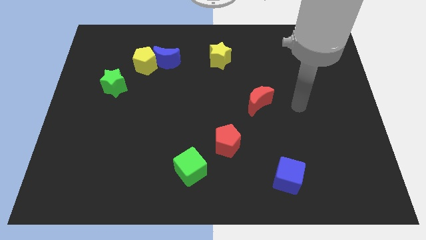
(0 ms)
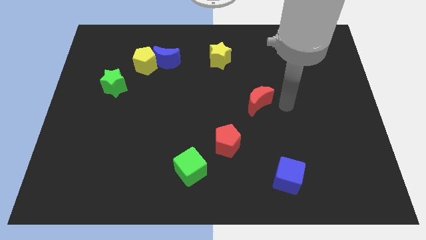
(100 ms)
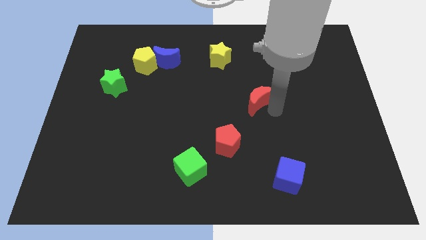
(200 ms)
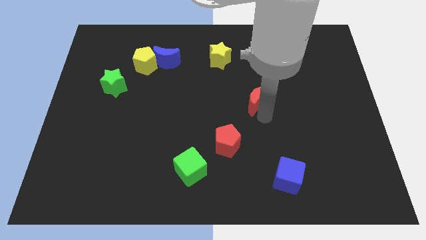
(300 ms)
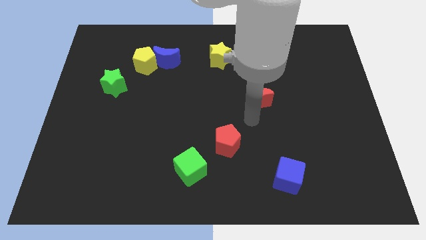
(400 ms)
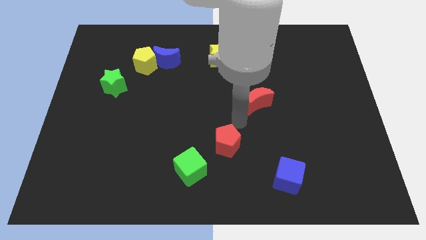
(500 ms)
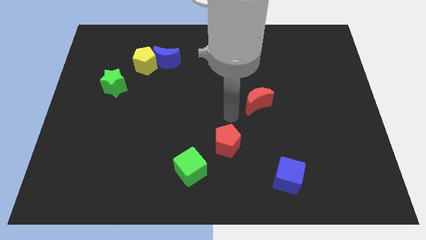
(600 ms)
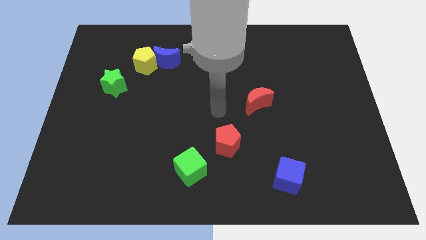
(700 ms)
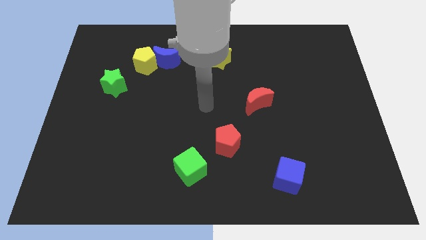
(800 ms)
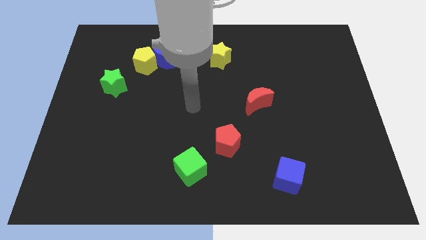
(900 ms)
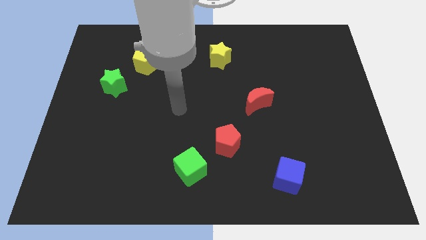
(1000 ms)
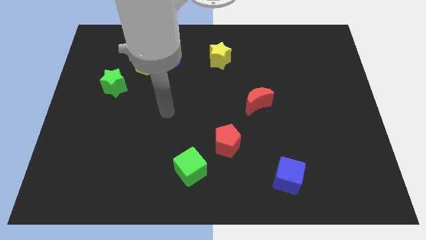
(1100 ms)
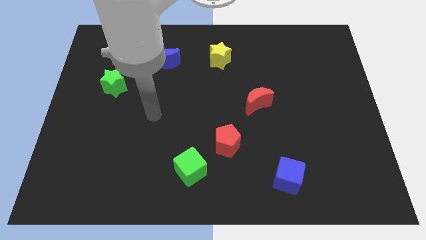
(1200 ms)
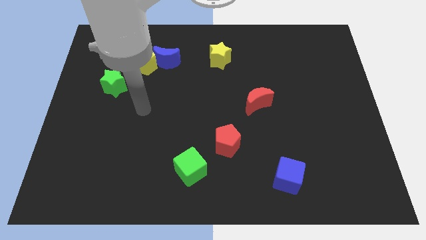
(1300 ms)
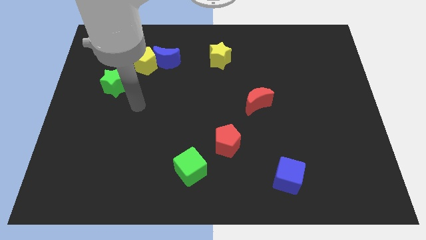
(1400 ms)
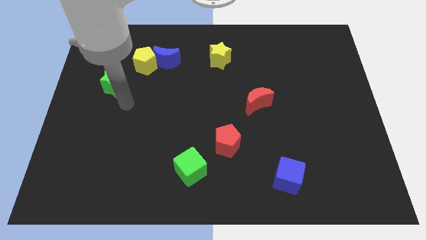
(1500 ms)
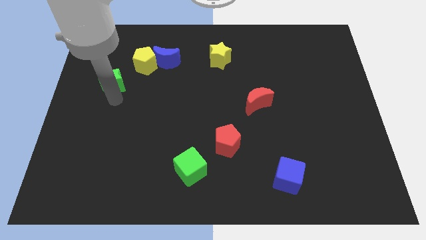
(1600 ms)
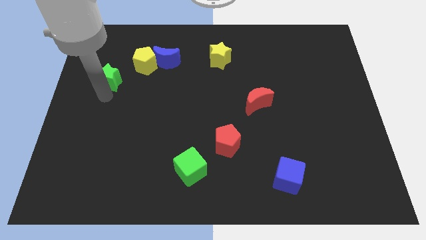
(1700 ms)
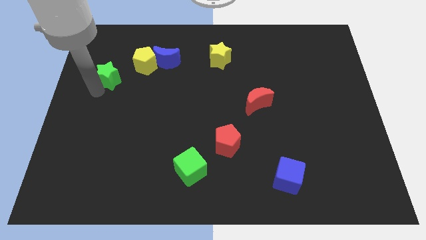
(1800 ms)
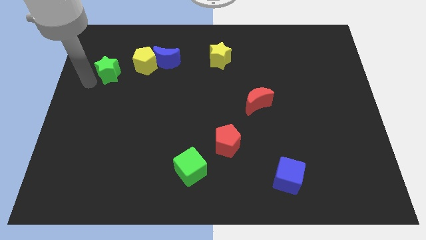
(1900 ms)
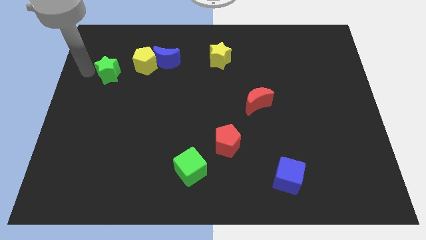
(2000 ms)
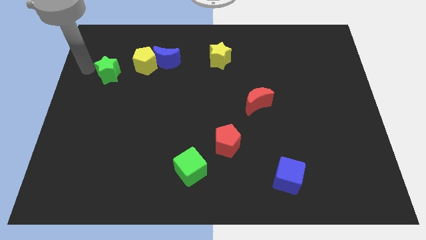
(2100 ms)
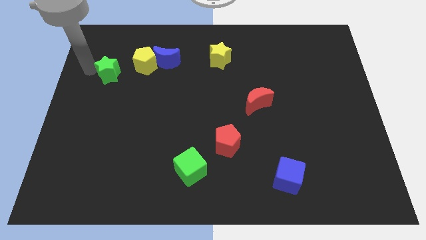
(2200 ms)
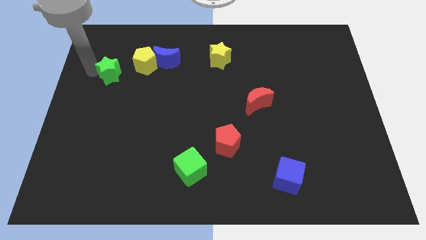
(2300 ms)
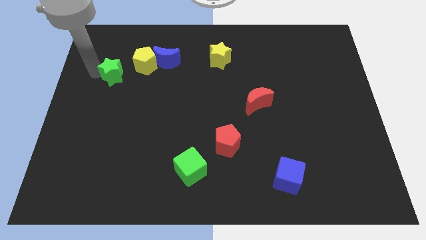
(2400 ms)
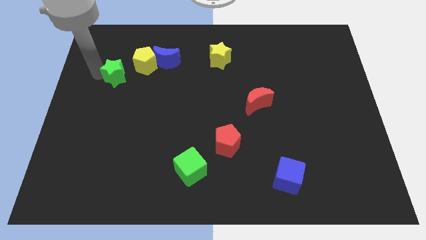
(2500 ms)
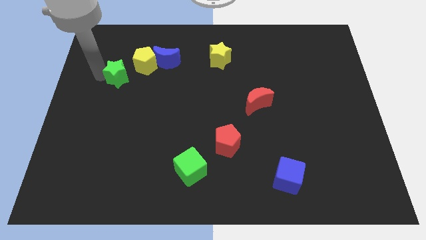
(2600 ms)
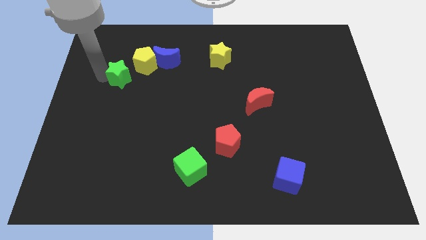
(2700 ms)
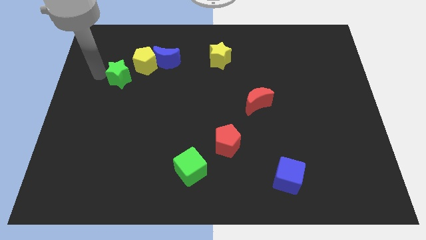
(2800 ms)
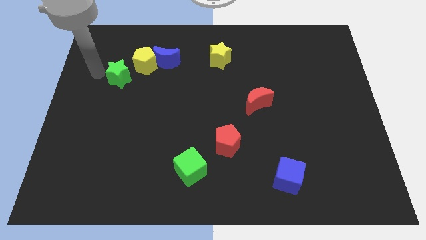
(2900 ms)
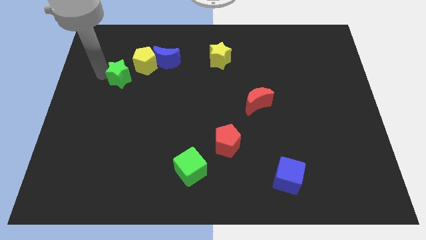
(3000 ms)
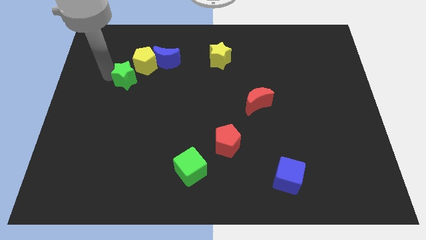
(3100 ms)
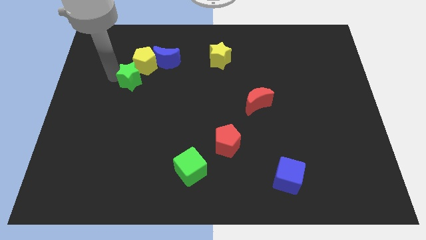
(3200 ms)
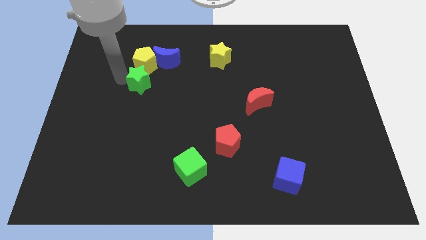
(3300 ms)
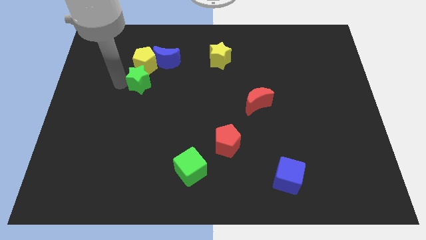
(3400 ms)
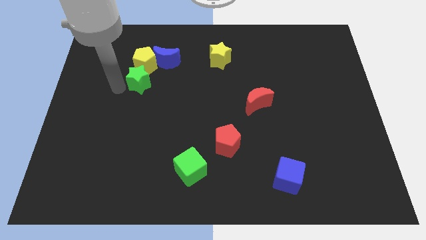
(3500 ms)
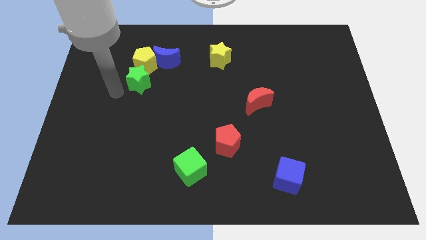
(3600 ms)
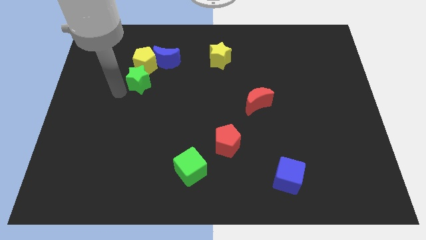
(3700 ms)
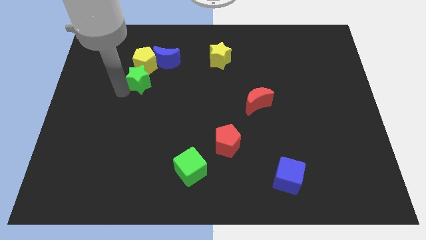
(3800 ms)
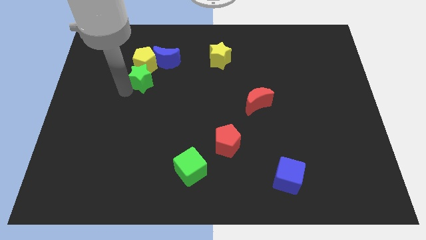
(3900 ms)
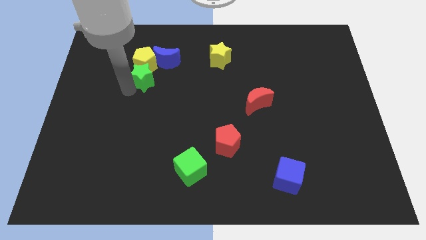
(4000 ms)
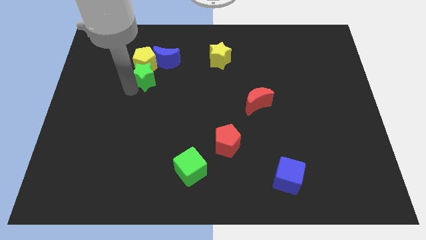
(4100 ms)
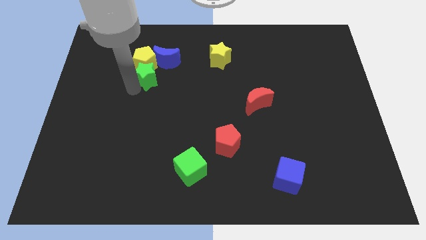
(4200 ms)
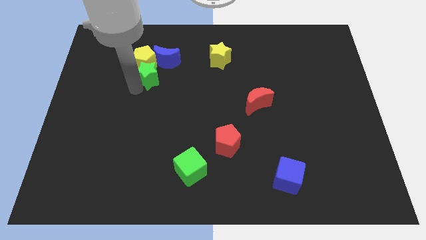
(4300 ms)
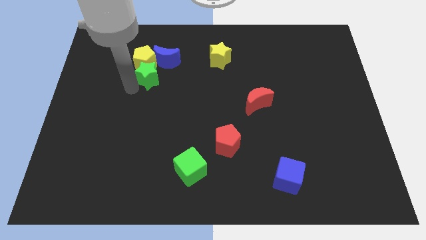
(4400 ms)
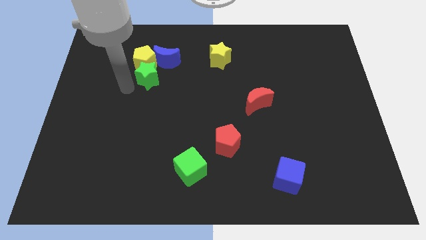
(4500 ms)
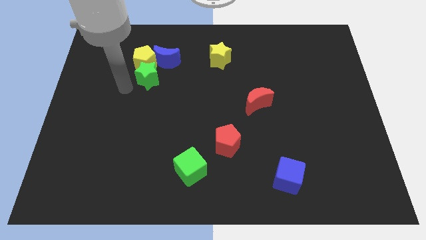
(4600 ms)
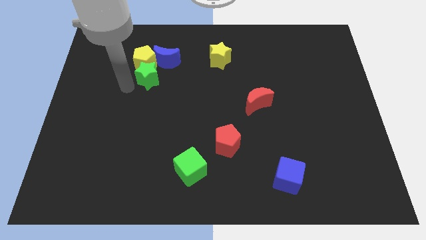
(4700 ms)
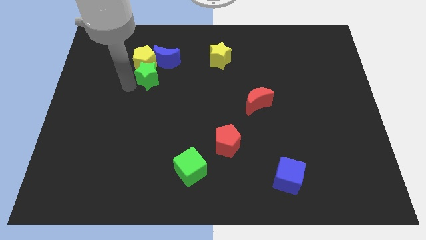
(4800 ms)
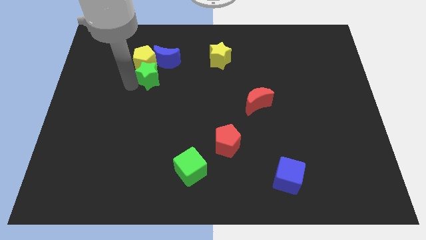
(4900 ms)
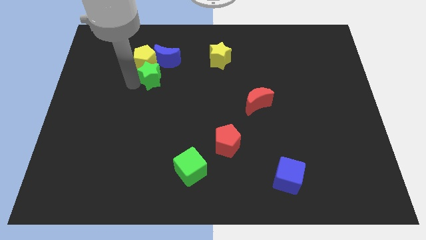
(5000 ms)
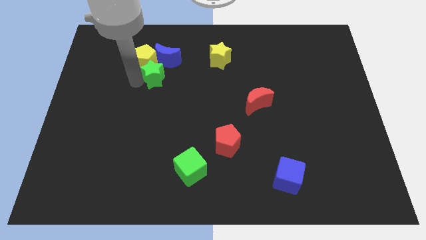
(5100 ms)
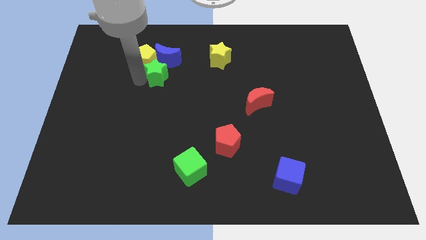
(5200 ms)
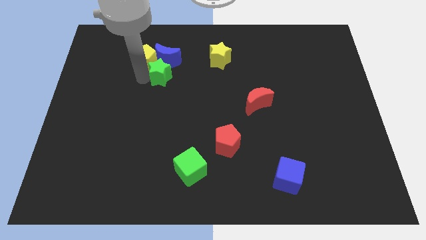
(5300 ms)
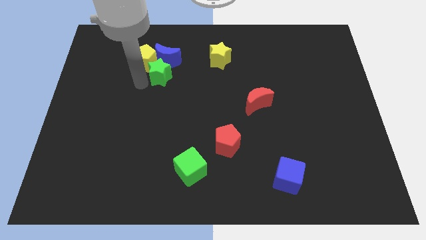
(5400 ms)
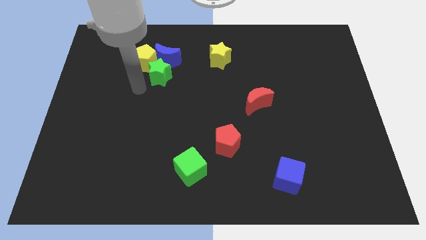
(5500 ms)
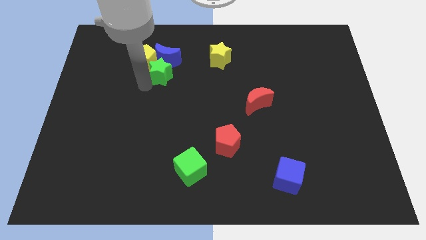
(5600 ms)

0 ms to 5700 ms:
slide the green star just right of the yellow pentagon

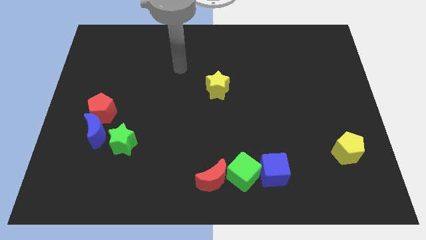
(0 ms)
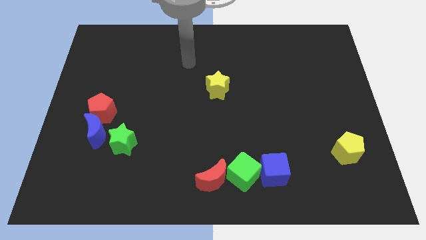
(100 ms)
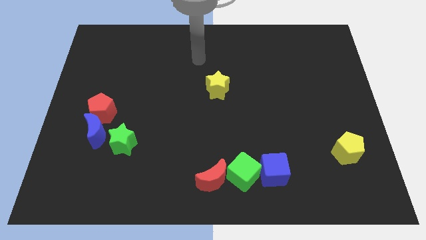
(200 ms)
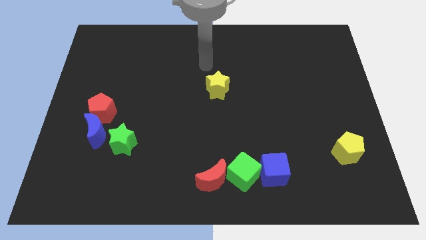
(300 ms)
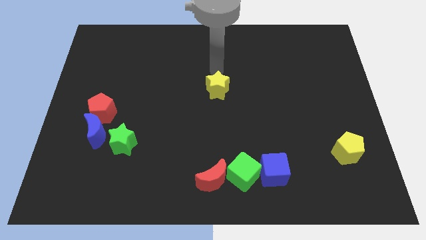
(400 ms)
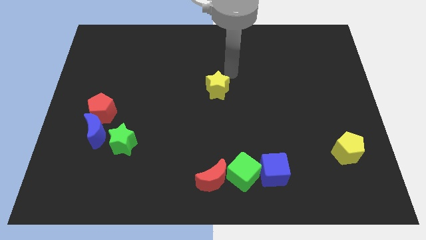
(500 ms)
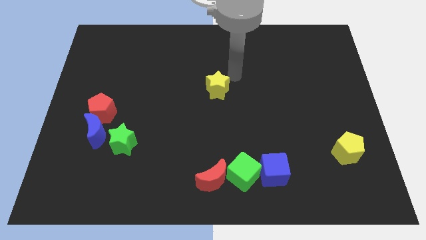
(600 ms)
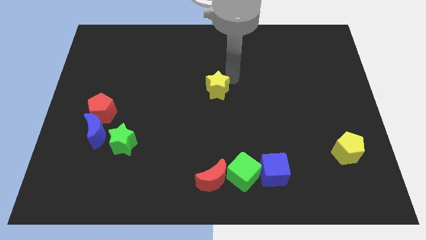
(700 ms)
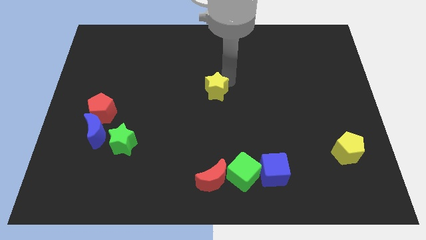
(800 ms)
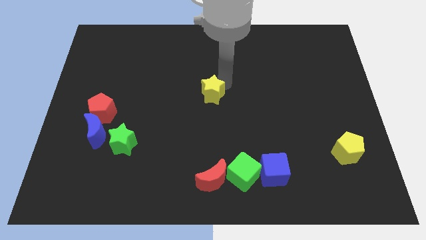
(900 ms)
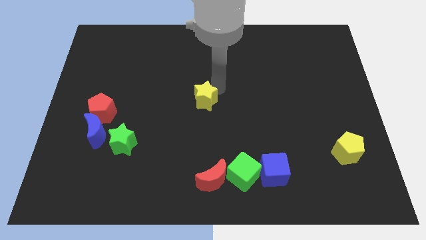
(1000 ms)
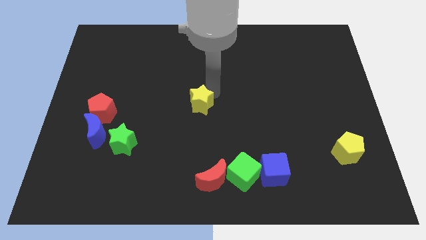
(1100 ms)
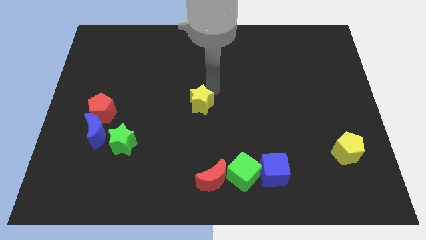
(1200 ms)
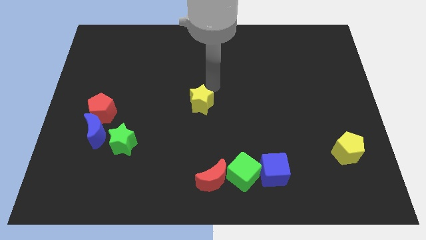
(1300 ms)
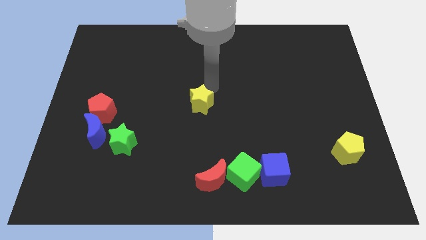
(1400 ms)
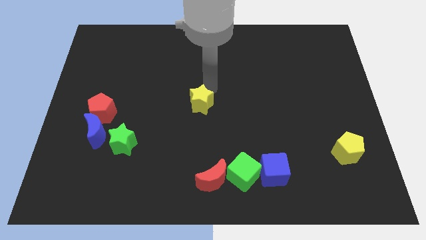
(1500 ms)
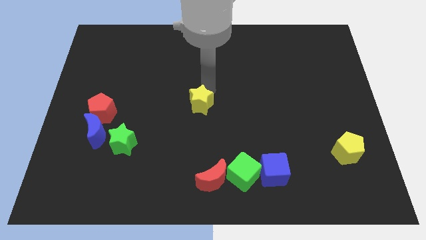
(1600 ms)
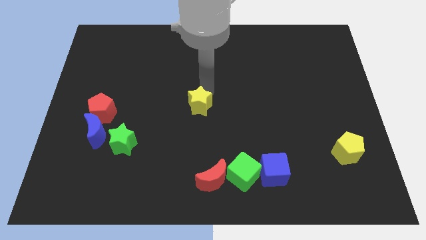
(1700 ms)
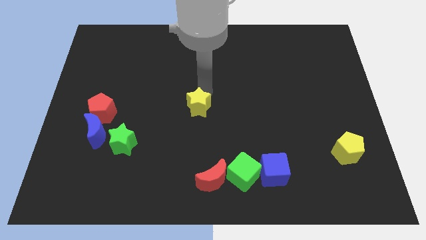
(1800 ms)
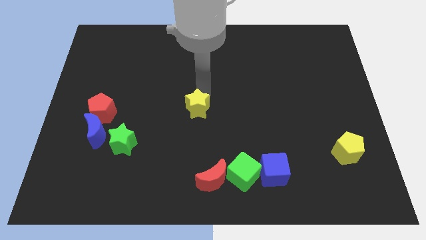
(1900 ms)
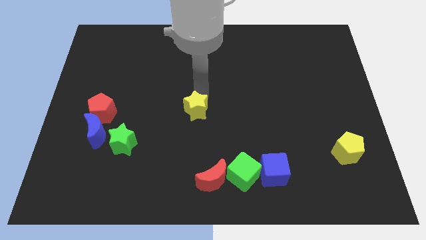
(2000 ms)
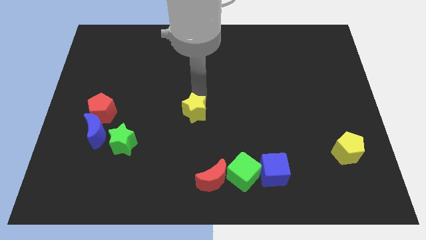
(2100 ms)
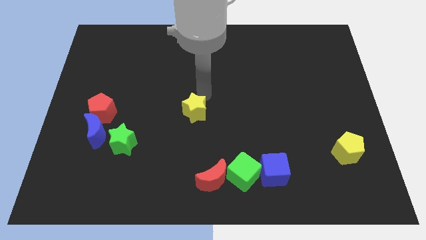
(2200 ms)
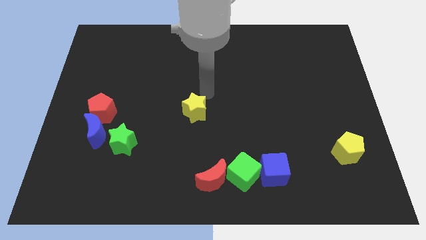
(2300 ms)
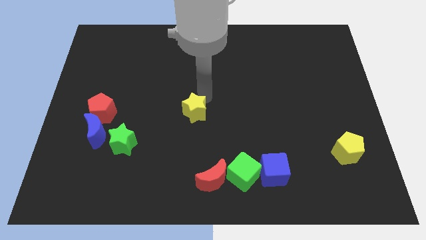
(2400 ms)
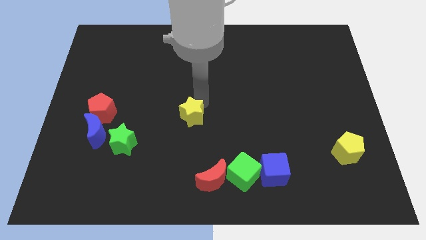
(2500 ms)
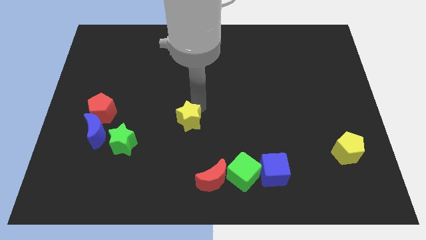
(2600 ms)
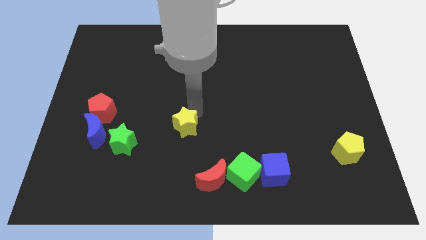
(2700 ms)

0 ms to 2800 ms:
move the yellow star right of the green star
